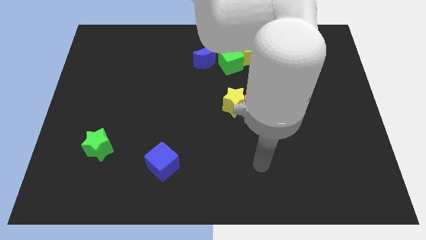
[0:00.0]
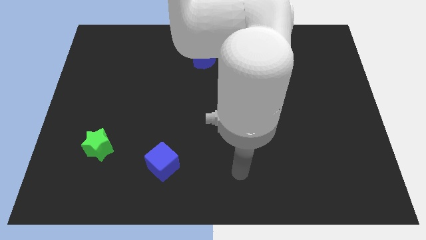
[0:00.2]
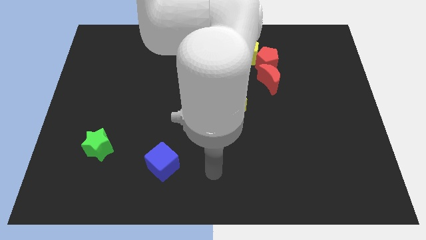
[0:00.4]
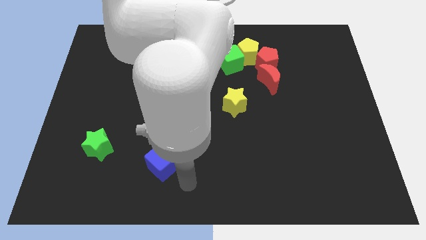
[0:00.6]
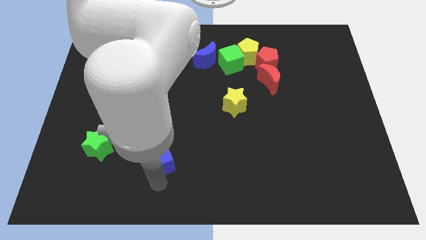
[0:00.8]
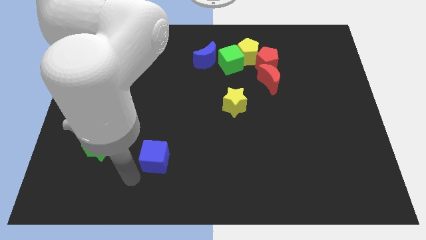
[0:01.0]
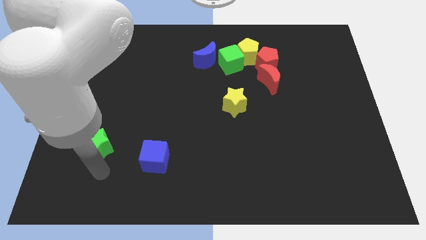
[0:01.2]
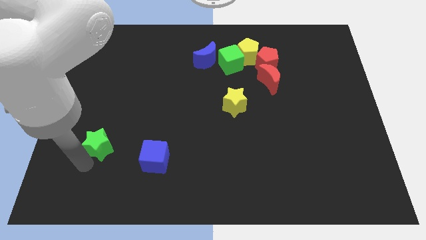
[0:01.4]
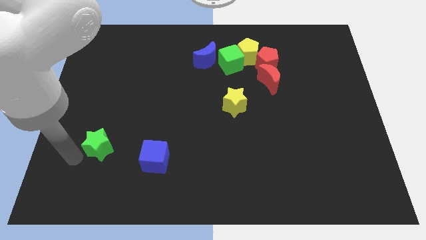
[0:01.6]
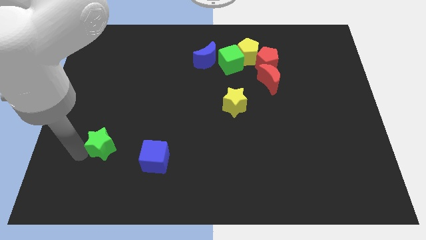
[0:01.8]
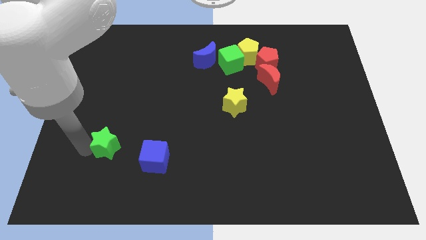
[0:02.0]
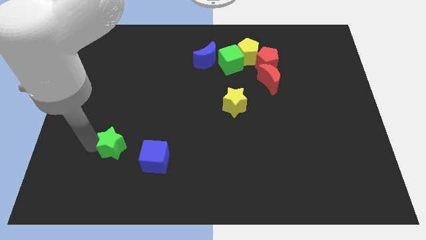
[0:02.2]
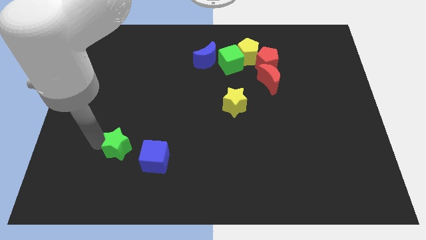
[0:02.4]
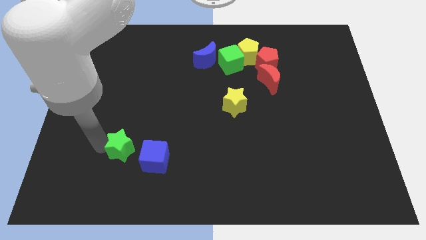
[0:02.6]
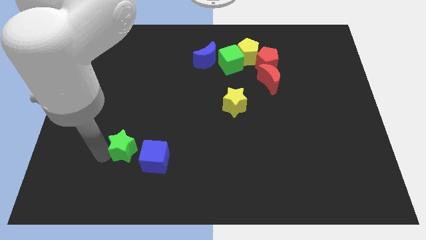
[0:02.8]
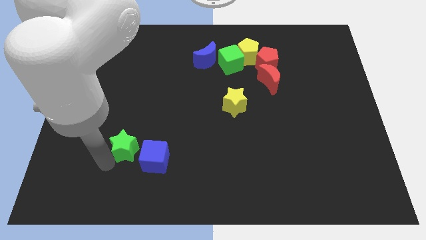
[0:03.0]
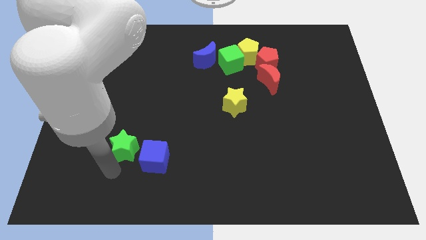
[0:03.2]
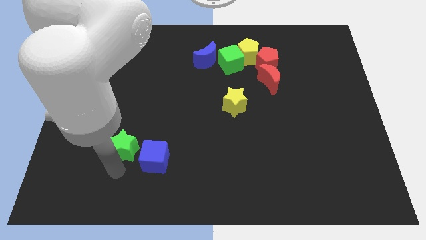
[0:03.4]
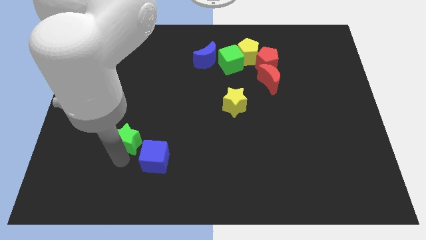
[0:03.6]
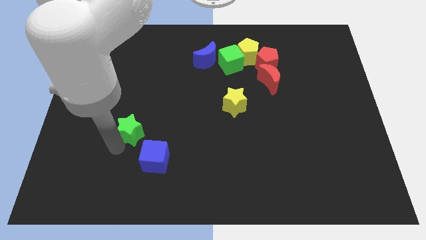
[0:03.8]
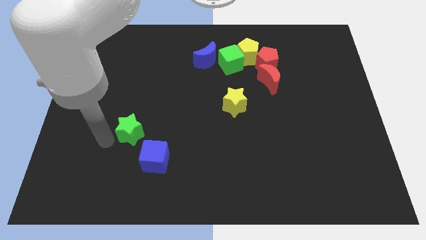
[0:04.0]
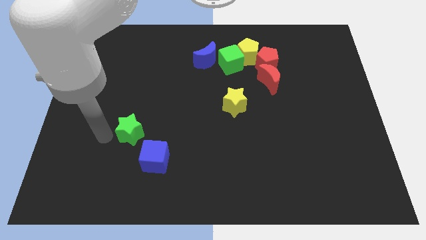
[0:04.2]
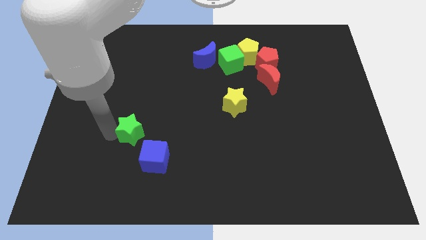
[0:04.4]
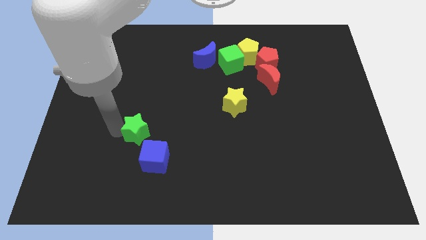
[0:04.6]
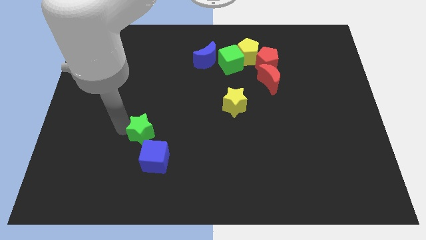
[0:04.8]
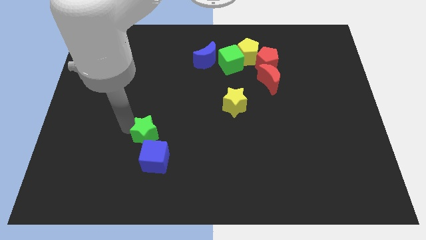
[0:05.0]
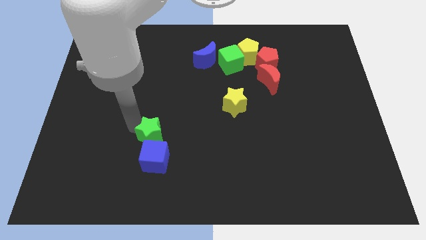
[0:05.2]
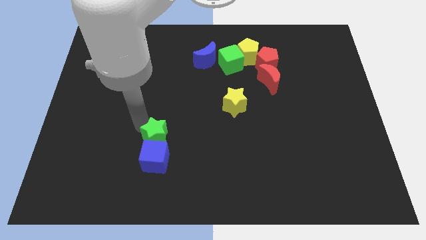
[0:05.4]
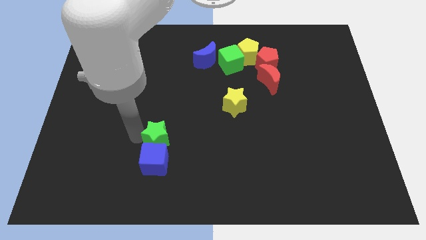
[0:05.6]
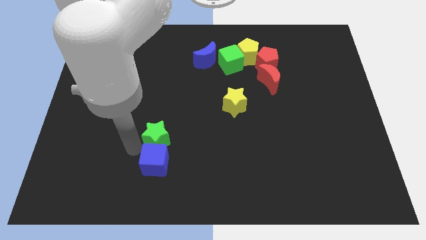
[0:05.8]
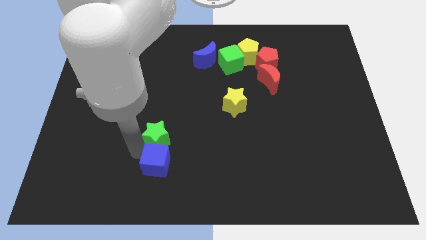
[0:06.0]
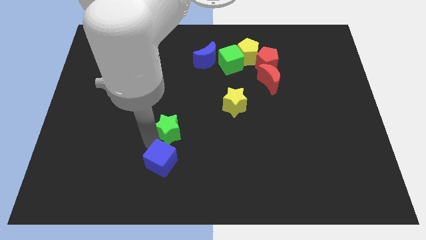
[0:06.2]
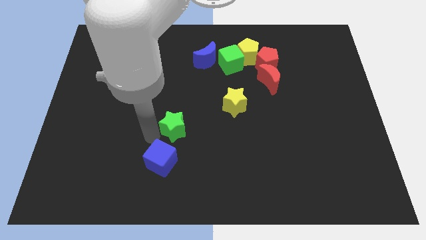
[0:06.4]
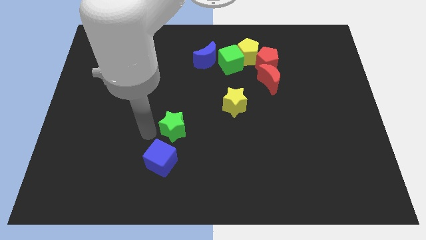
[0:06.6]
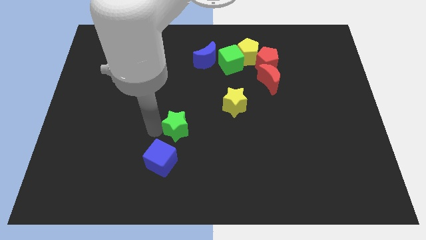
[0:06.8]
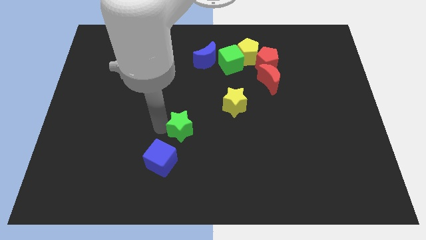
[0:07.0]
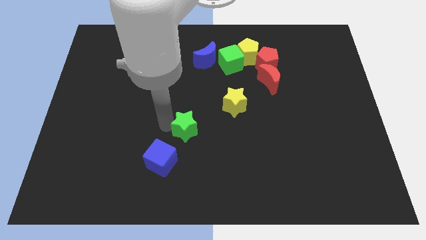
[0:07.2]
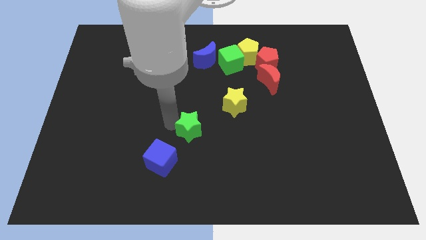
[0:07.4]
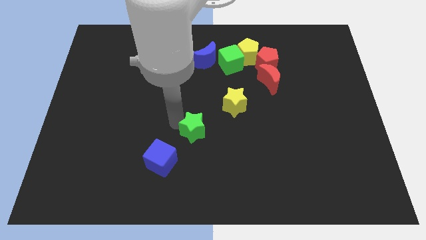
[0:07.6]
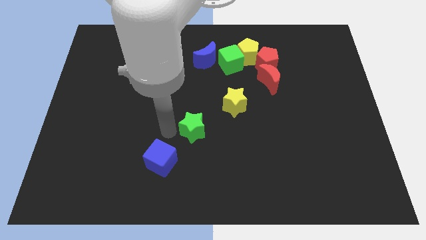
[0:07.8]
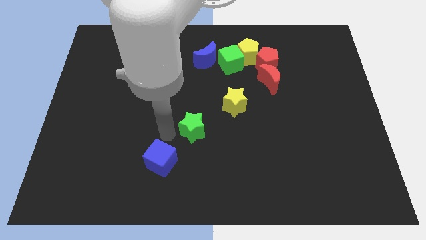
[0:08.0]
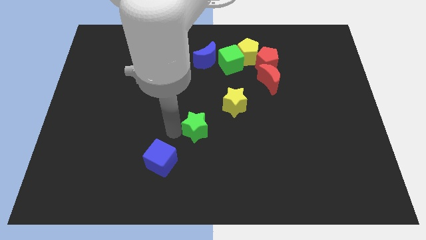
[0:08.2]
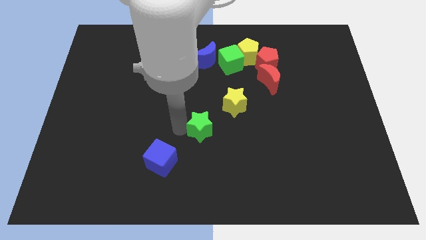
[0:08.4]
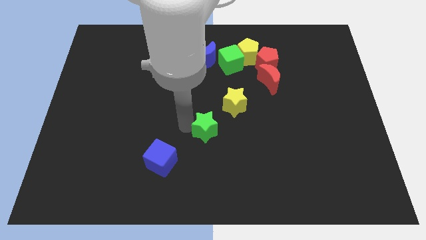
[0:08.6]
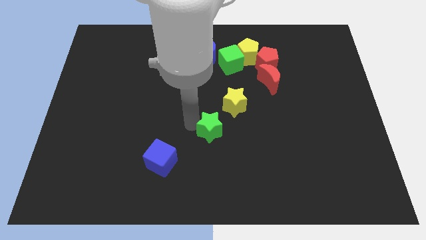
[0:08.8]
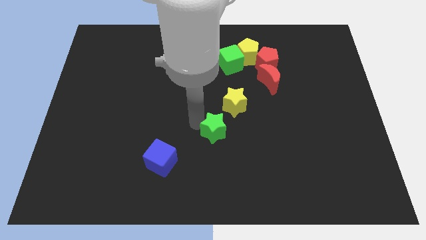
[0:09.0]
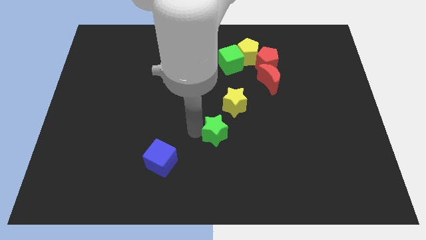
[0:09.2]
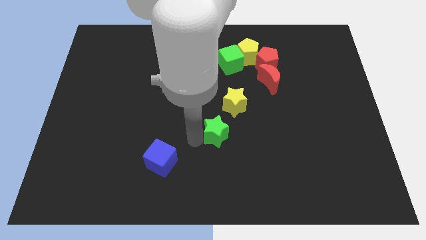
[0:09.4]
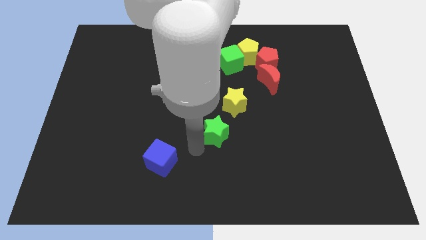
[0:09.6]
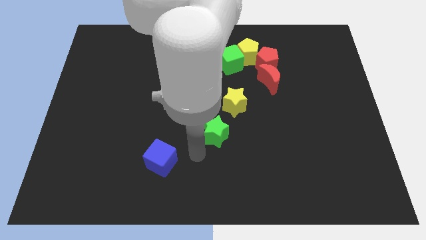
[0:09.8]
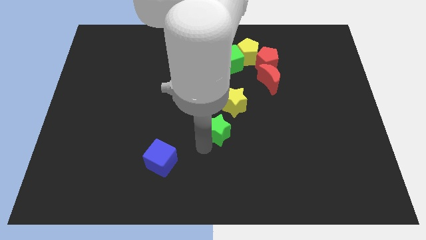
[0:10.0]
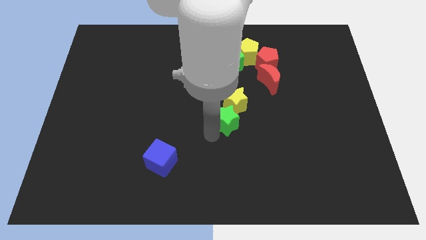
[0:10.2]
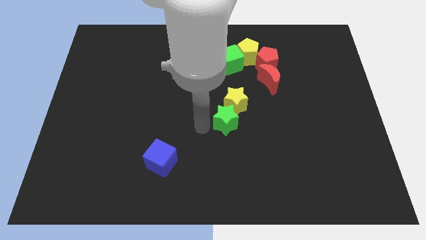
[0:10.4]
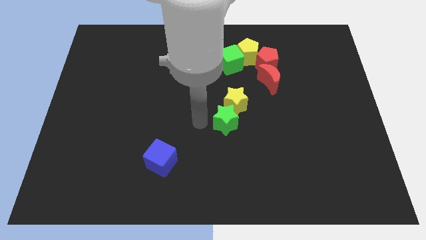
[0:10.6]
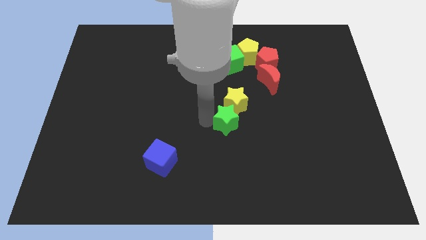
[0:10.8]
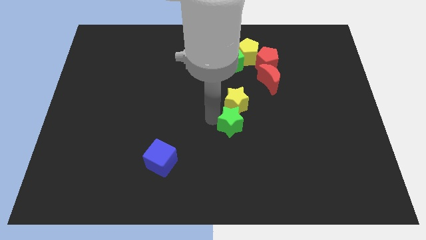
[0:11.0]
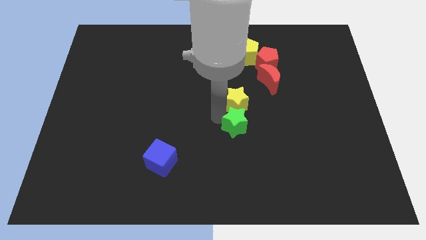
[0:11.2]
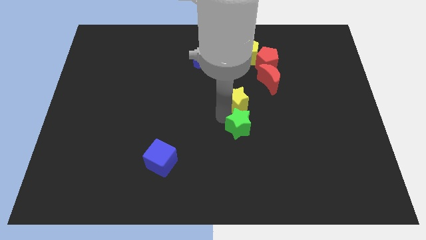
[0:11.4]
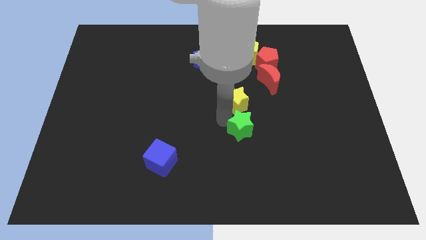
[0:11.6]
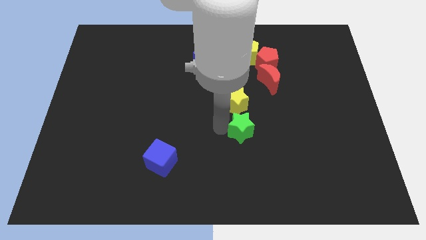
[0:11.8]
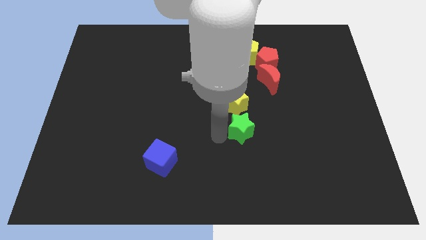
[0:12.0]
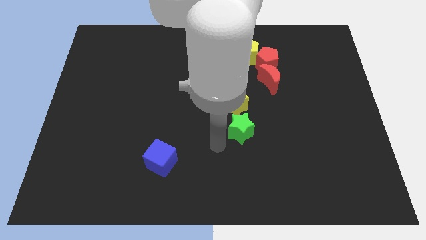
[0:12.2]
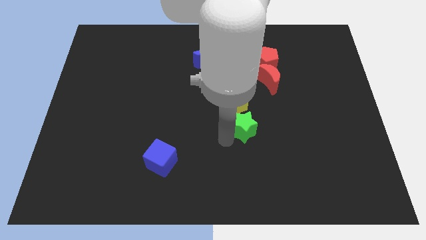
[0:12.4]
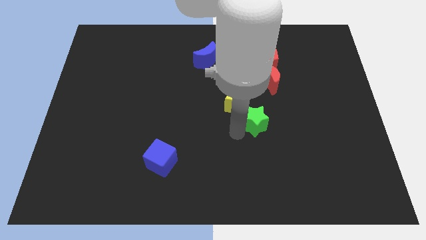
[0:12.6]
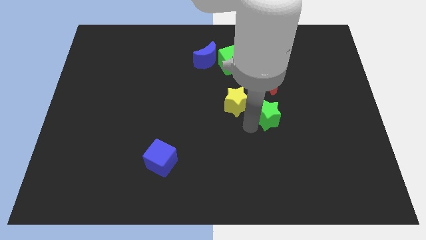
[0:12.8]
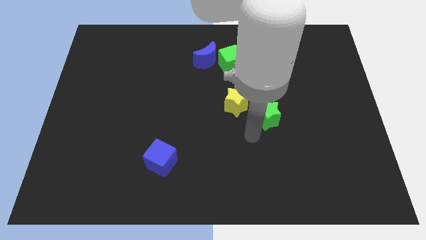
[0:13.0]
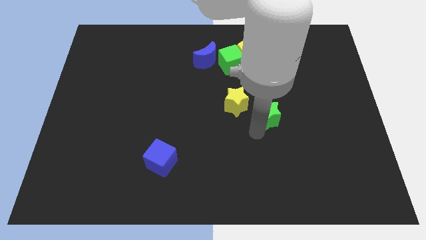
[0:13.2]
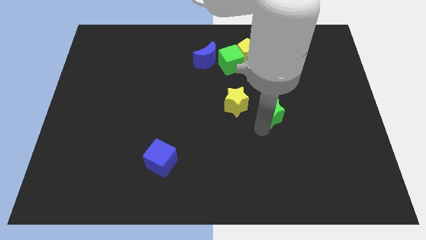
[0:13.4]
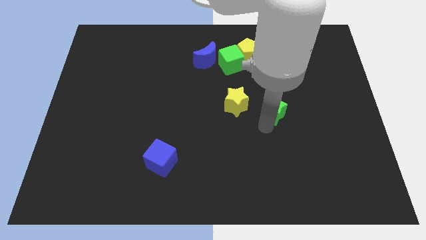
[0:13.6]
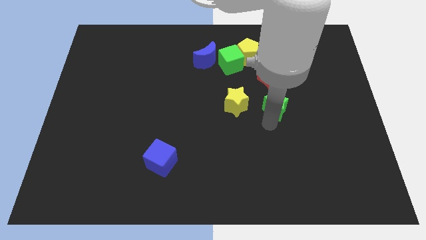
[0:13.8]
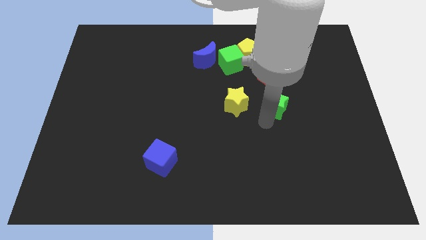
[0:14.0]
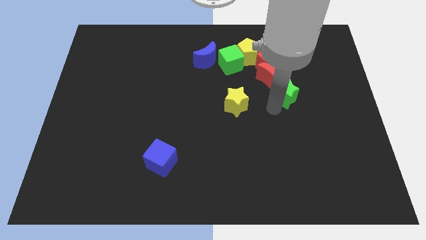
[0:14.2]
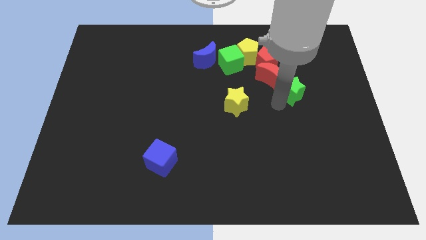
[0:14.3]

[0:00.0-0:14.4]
slide the green star to the bottom right side of the red pentagon
